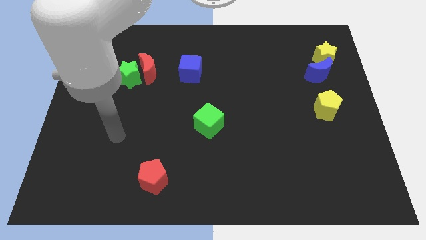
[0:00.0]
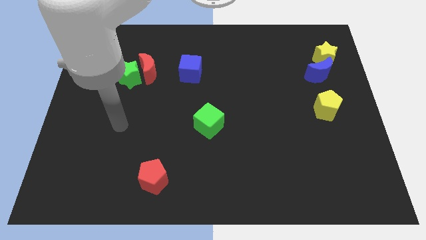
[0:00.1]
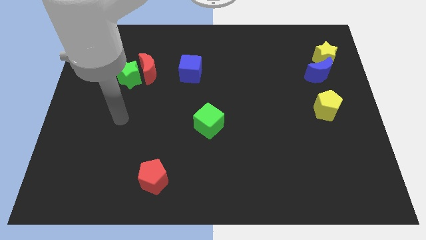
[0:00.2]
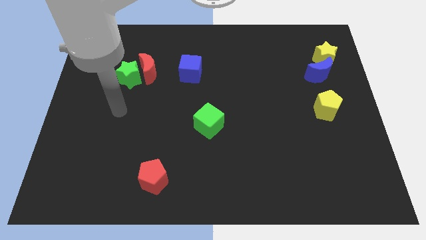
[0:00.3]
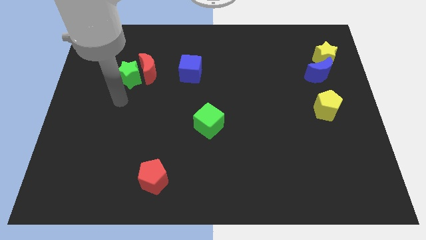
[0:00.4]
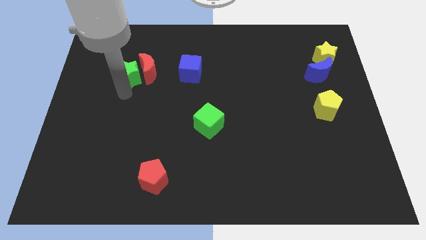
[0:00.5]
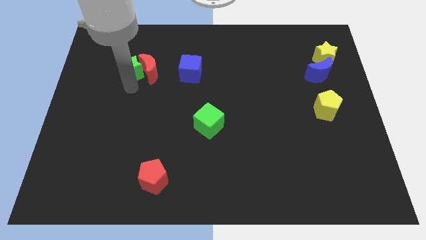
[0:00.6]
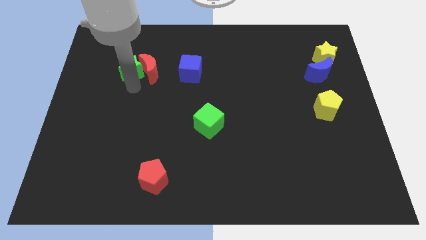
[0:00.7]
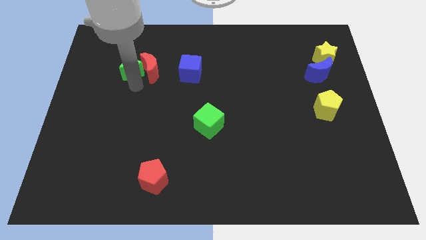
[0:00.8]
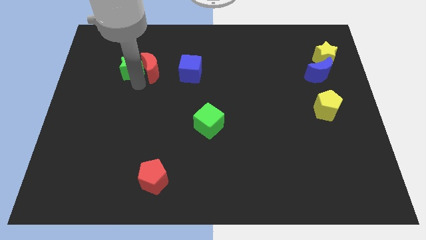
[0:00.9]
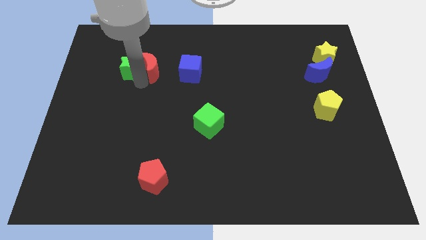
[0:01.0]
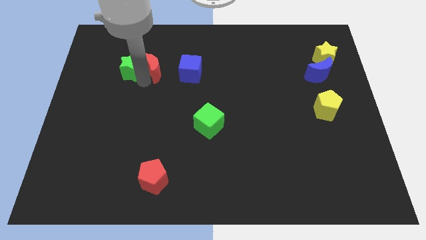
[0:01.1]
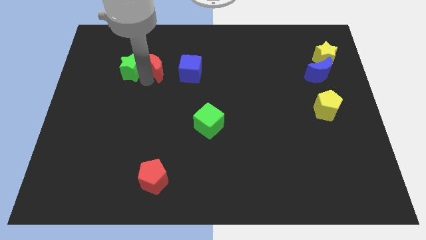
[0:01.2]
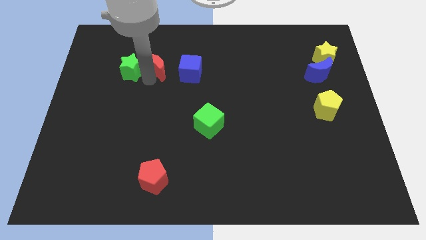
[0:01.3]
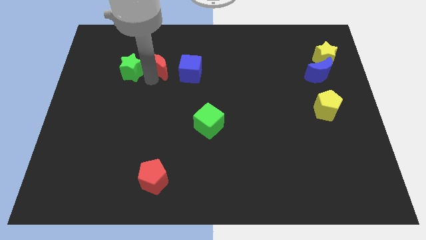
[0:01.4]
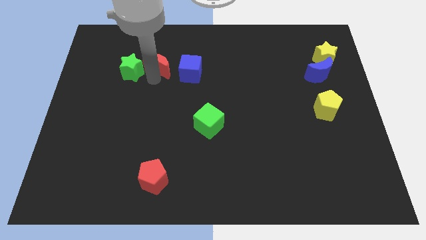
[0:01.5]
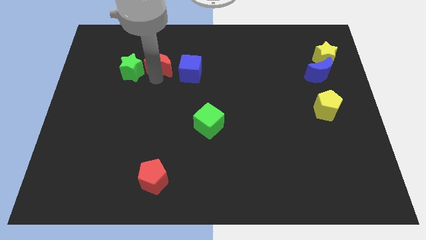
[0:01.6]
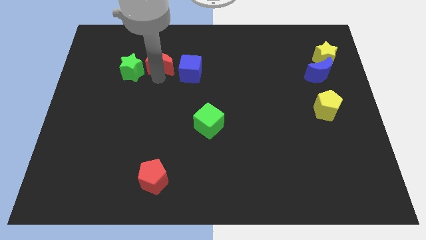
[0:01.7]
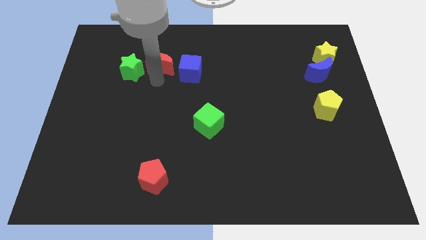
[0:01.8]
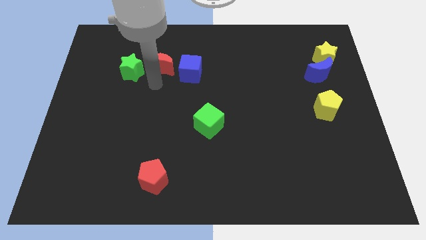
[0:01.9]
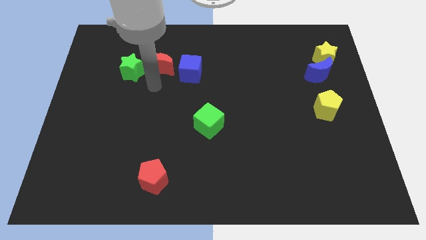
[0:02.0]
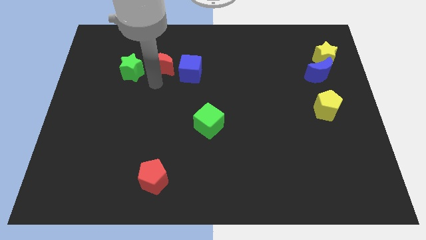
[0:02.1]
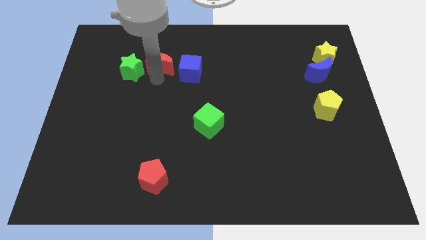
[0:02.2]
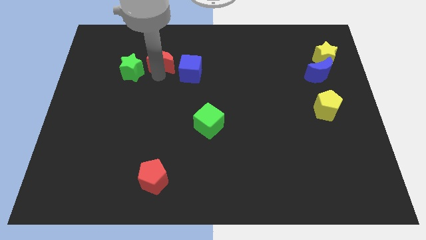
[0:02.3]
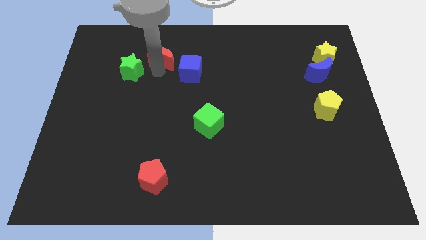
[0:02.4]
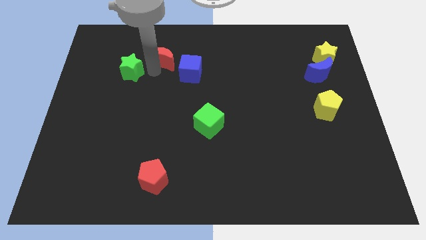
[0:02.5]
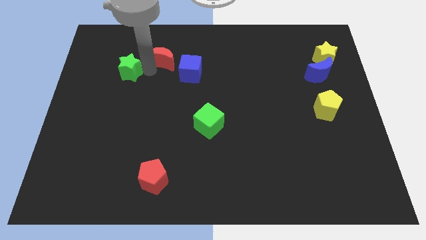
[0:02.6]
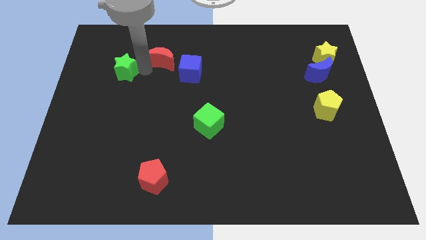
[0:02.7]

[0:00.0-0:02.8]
move the red moon away from the green star

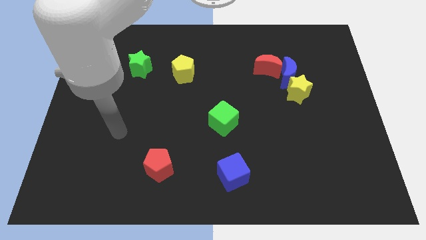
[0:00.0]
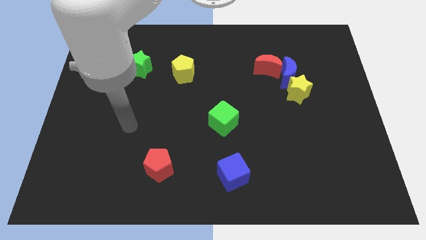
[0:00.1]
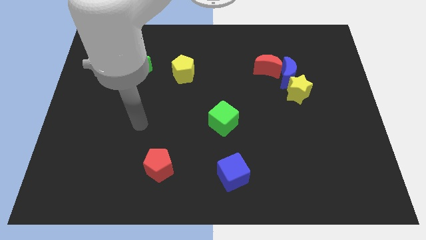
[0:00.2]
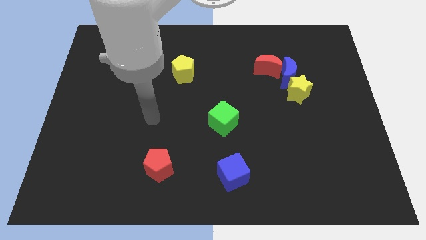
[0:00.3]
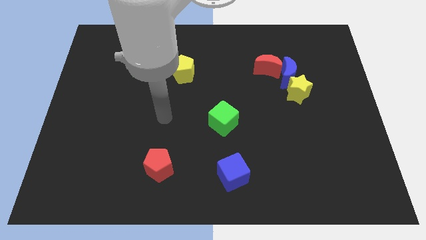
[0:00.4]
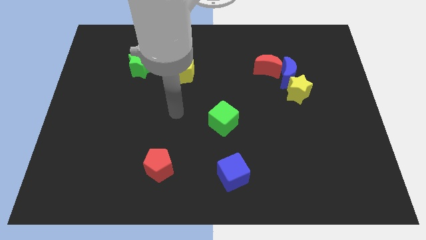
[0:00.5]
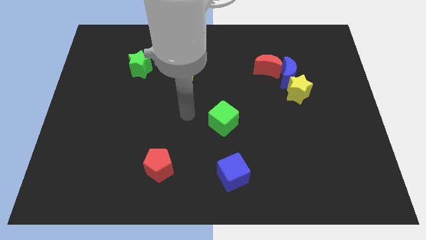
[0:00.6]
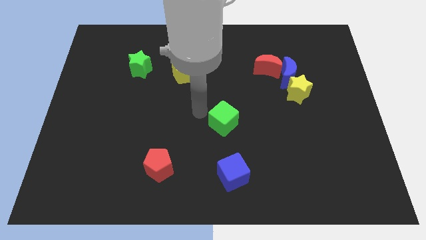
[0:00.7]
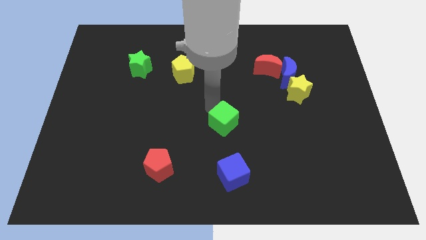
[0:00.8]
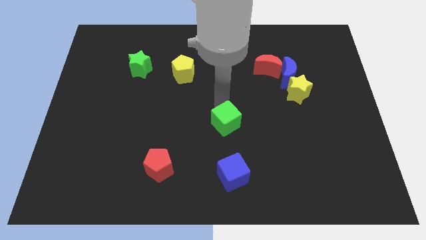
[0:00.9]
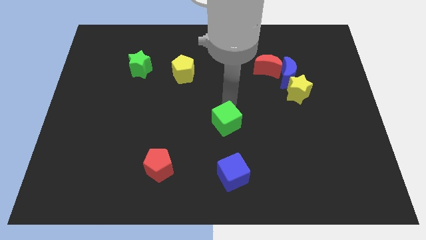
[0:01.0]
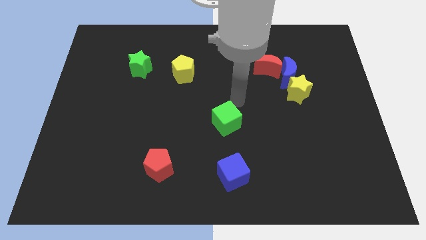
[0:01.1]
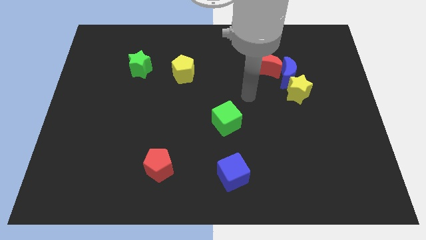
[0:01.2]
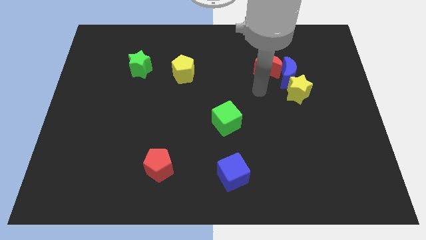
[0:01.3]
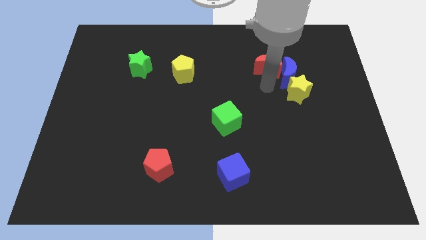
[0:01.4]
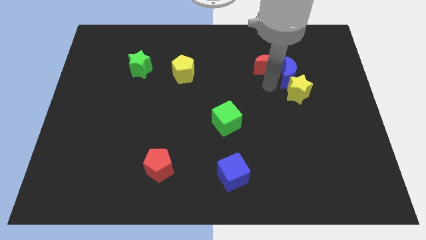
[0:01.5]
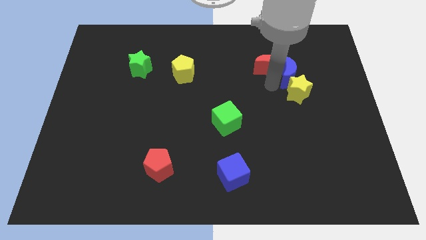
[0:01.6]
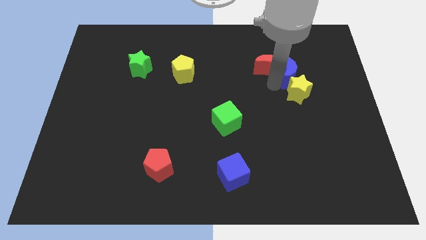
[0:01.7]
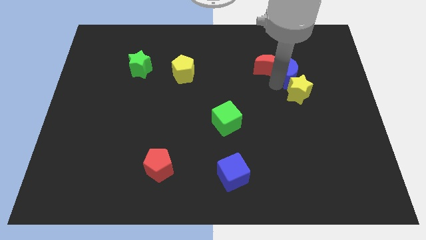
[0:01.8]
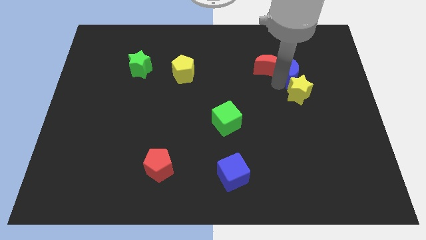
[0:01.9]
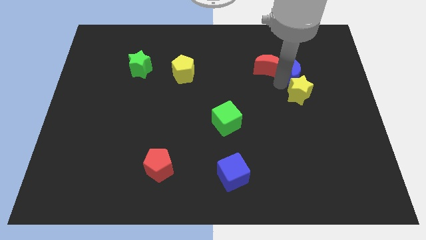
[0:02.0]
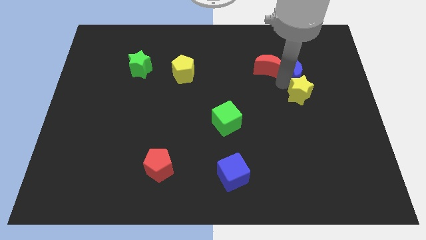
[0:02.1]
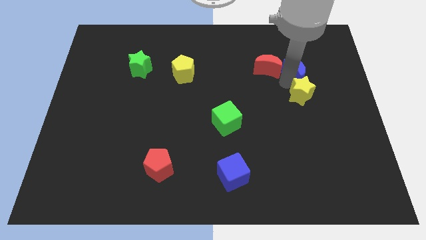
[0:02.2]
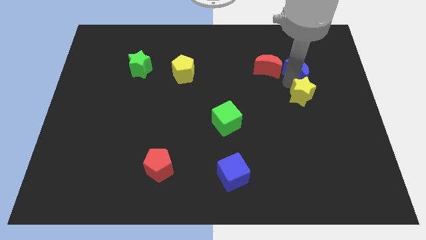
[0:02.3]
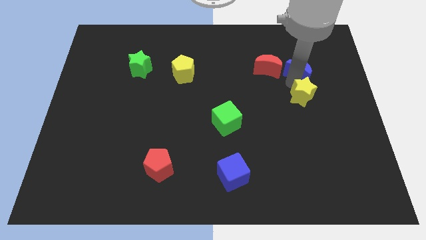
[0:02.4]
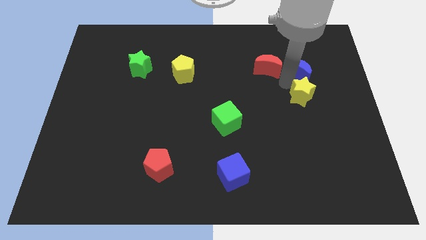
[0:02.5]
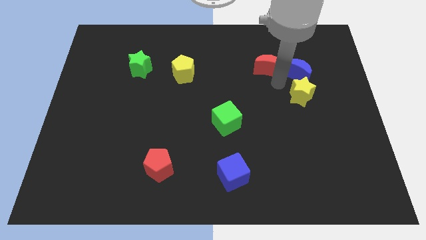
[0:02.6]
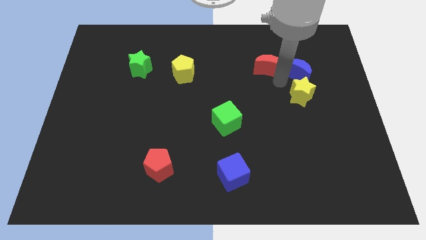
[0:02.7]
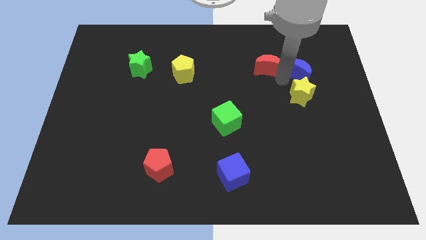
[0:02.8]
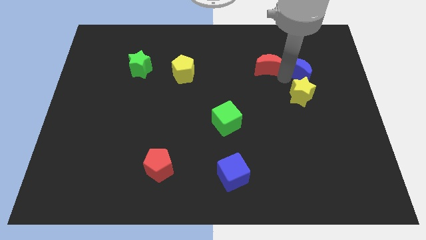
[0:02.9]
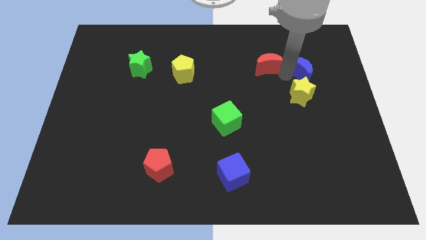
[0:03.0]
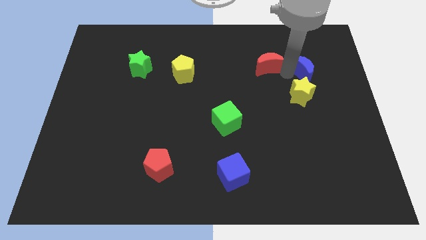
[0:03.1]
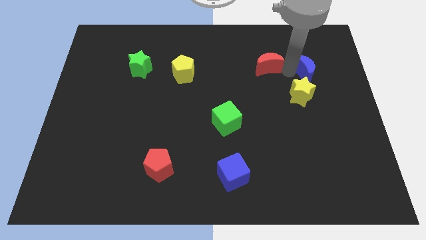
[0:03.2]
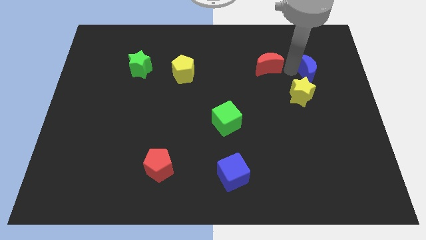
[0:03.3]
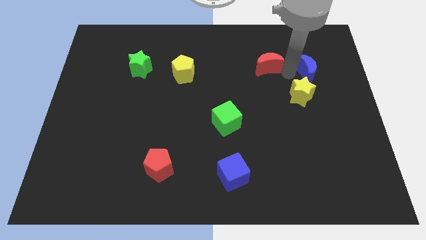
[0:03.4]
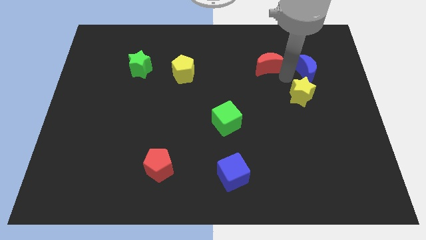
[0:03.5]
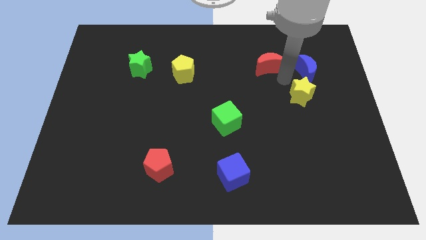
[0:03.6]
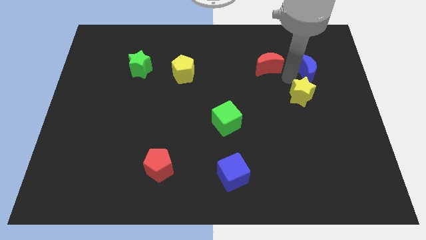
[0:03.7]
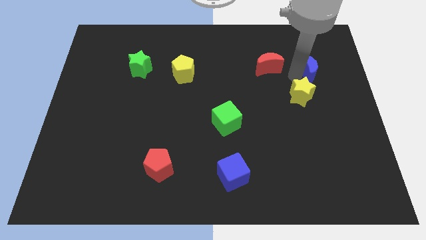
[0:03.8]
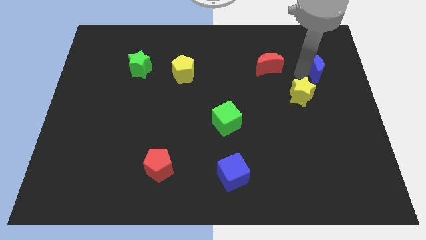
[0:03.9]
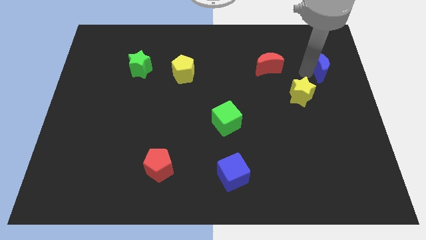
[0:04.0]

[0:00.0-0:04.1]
pull the blue moon apart from the yellow star and red moon

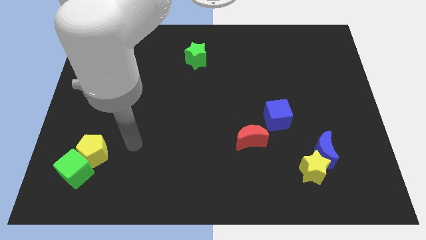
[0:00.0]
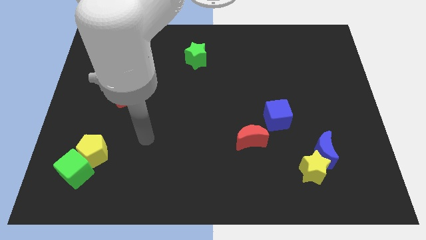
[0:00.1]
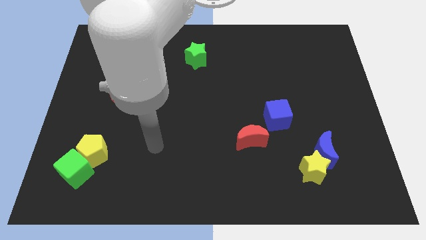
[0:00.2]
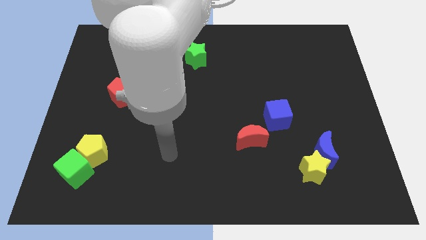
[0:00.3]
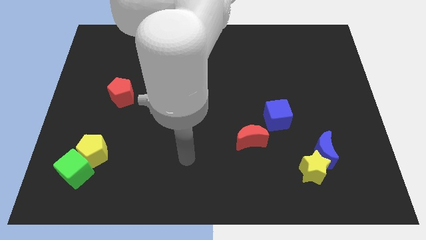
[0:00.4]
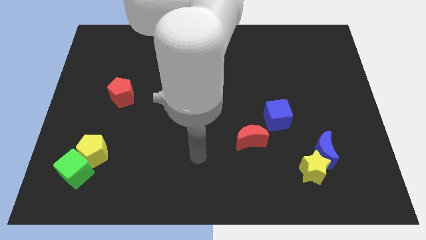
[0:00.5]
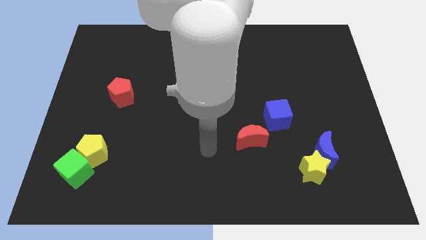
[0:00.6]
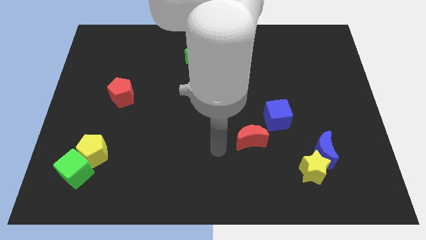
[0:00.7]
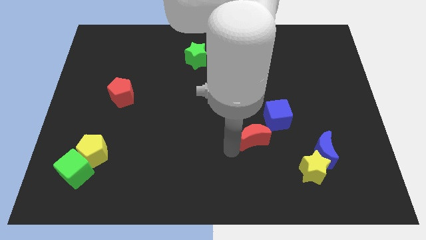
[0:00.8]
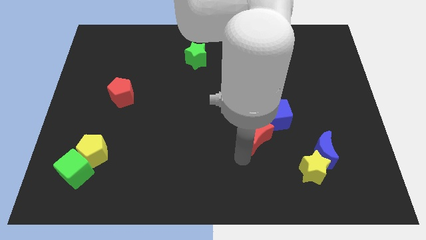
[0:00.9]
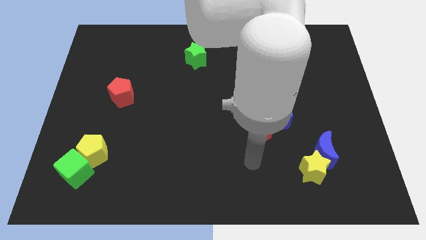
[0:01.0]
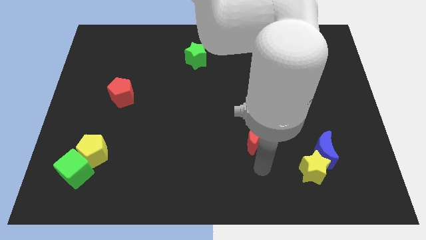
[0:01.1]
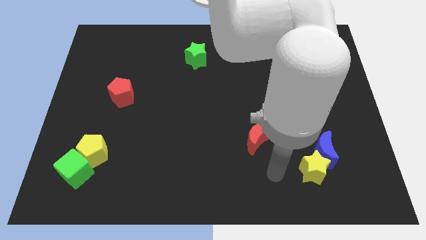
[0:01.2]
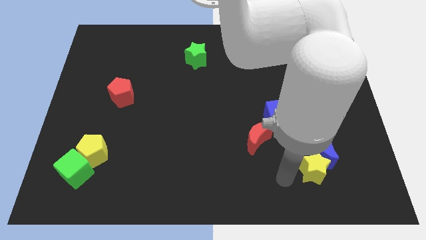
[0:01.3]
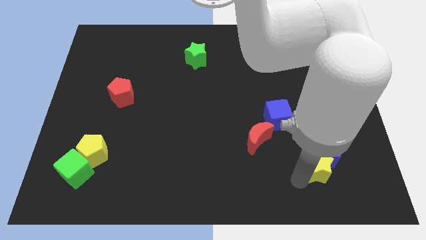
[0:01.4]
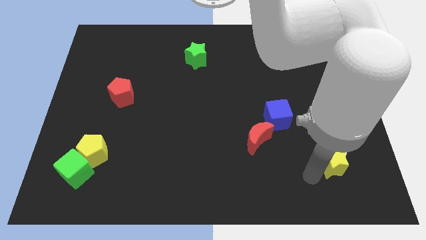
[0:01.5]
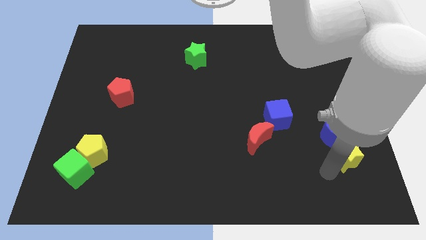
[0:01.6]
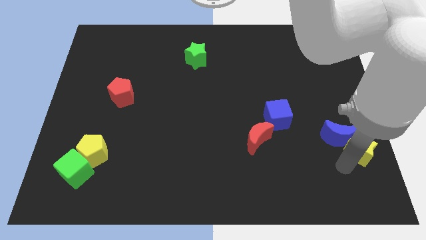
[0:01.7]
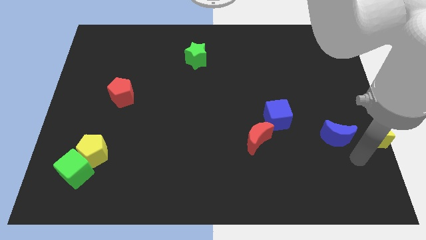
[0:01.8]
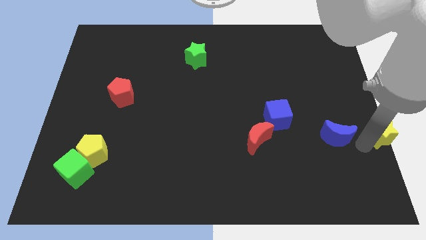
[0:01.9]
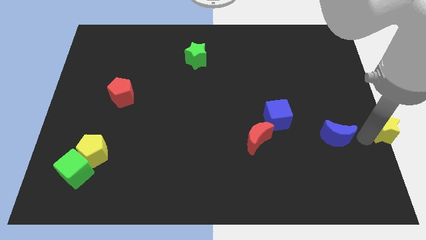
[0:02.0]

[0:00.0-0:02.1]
pull the blue moon apart from the yellow star

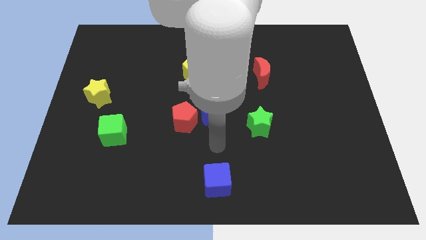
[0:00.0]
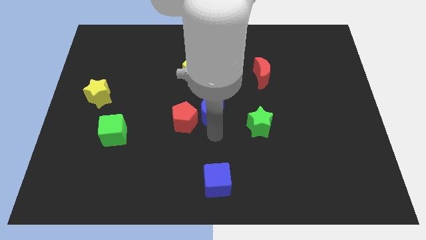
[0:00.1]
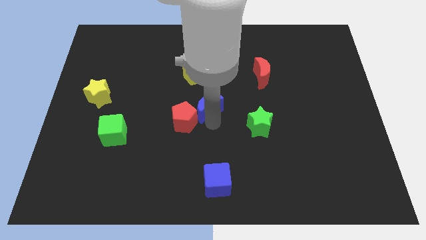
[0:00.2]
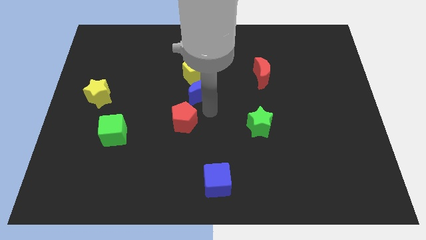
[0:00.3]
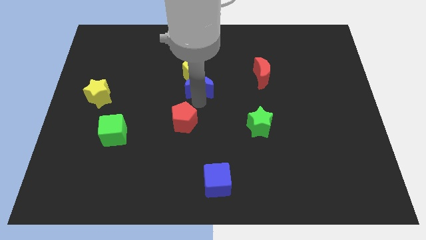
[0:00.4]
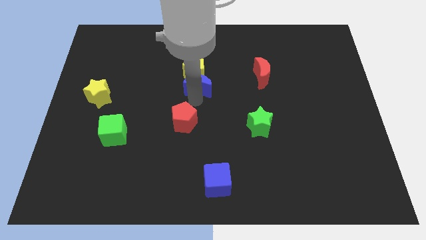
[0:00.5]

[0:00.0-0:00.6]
move the red pentagon away from the blue moon
